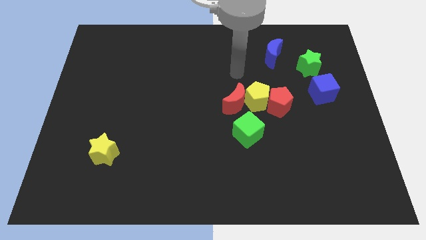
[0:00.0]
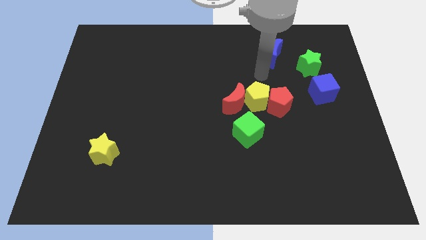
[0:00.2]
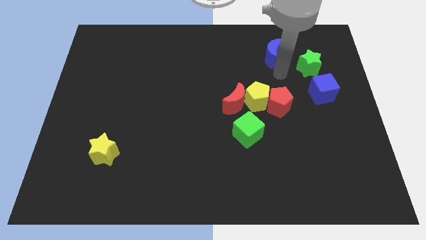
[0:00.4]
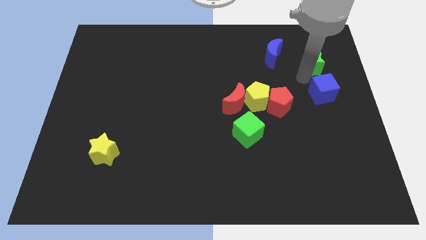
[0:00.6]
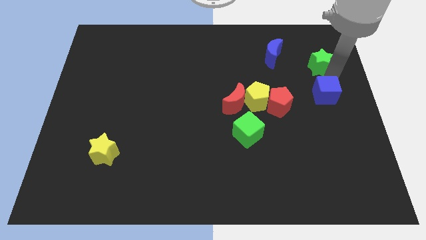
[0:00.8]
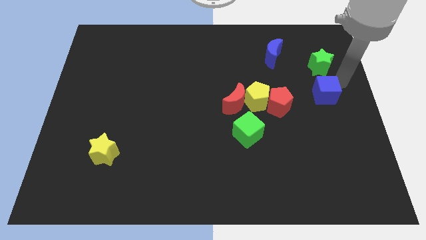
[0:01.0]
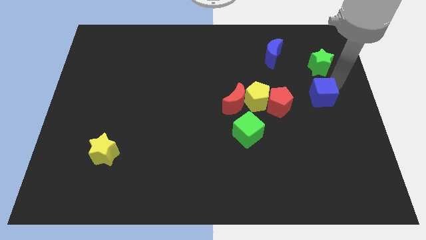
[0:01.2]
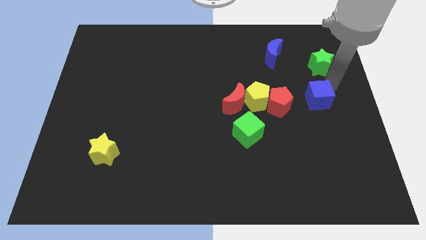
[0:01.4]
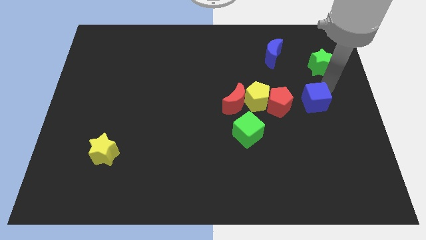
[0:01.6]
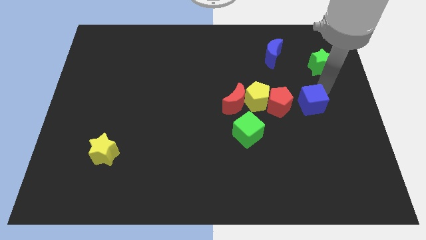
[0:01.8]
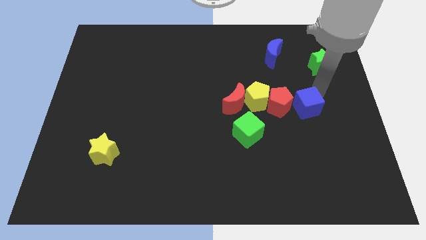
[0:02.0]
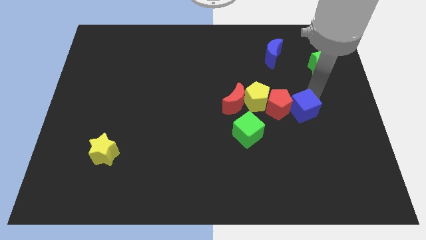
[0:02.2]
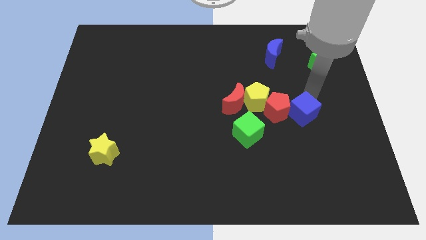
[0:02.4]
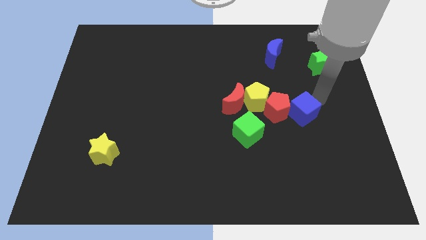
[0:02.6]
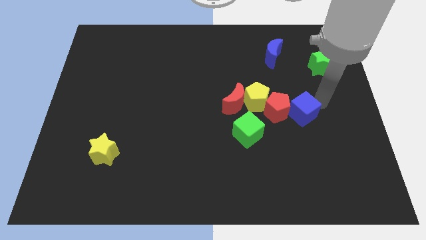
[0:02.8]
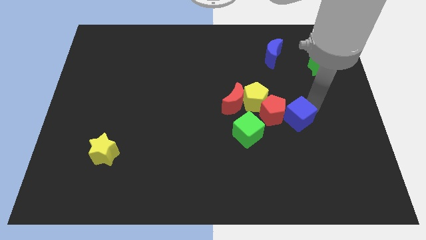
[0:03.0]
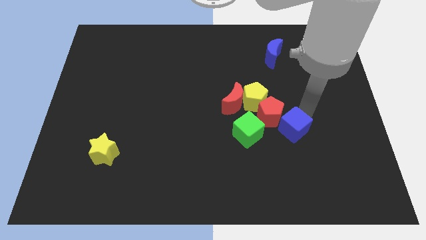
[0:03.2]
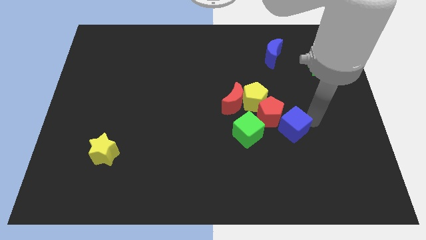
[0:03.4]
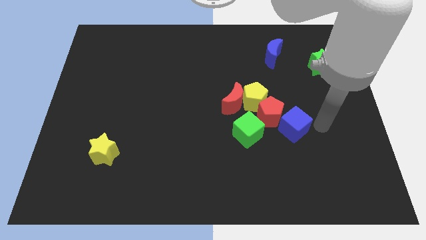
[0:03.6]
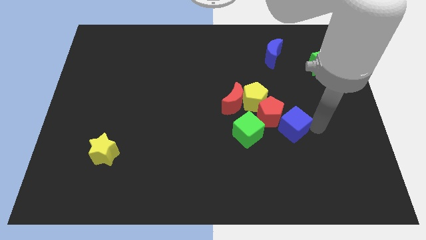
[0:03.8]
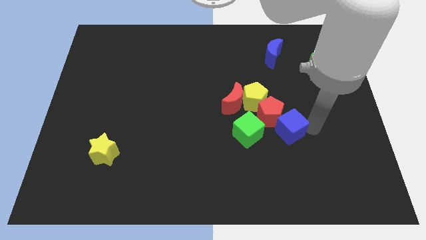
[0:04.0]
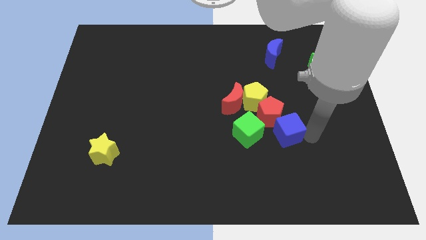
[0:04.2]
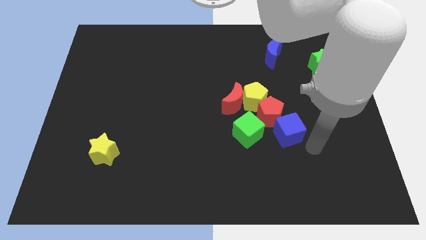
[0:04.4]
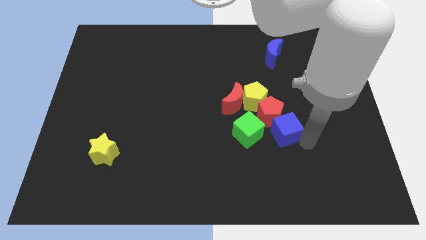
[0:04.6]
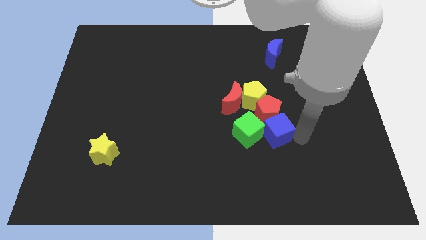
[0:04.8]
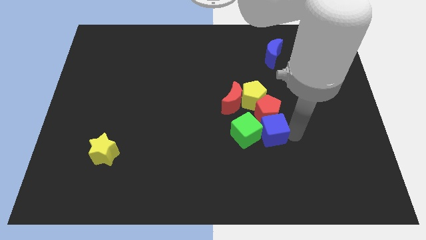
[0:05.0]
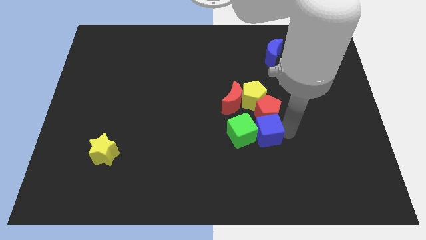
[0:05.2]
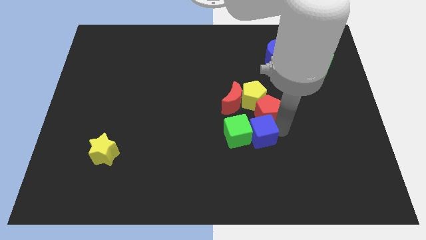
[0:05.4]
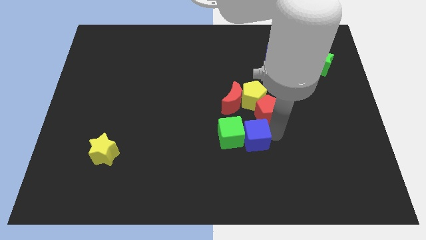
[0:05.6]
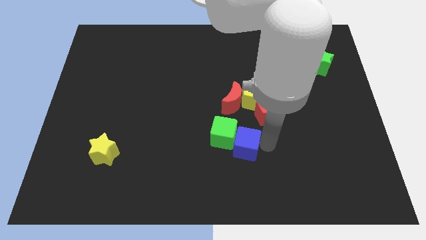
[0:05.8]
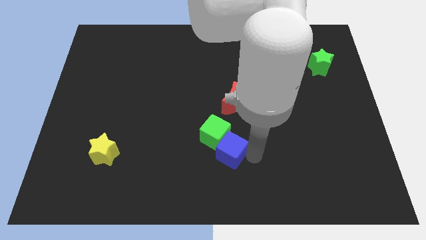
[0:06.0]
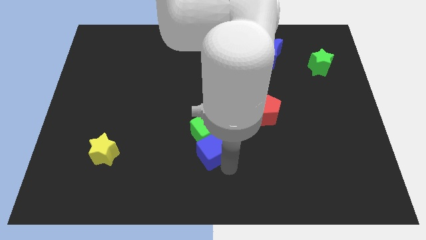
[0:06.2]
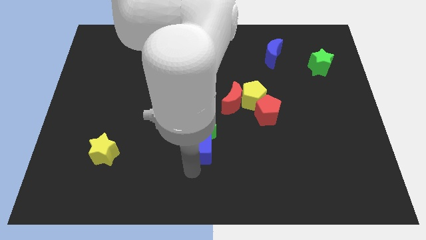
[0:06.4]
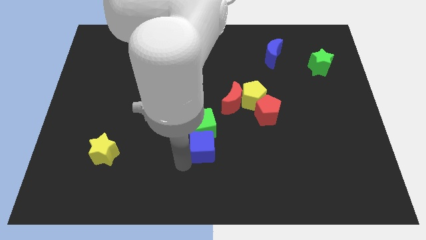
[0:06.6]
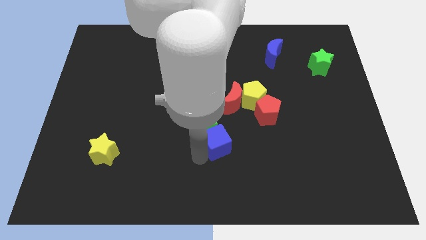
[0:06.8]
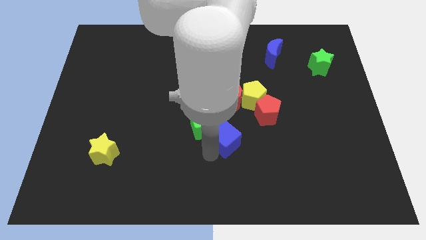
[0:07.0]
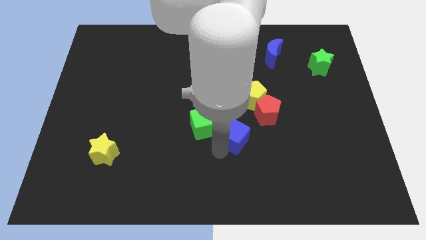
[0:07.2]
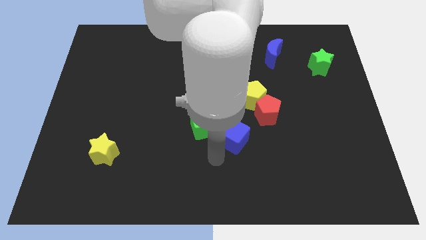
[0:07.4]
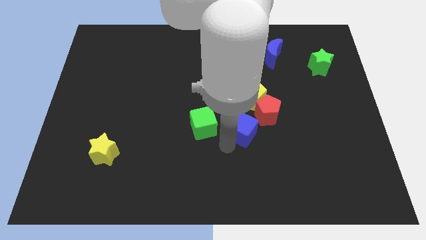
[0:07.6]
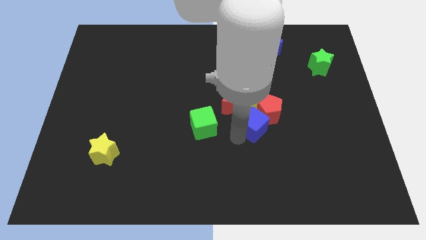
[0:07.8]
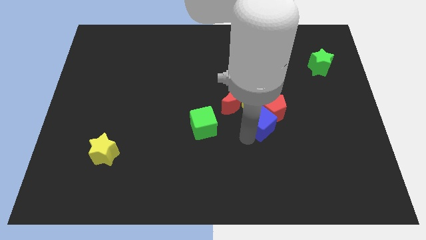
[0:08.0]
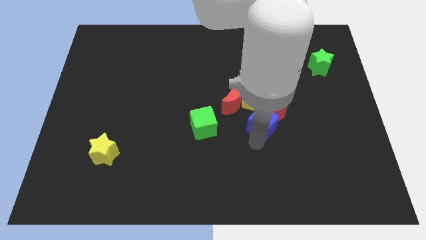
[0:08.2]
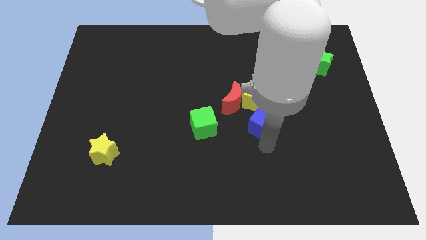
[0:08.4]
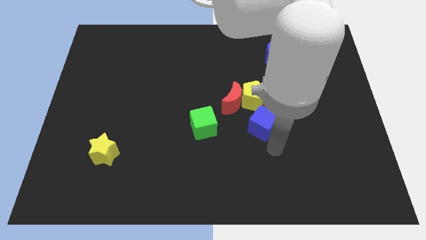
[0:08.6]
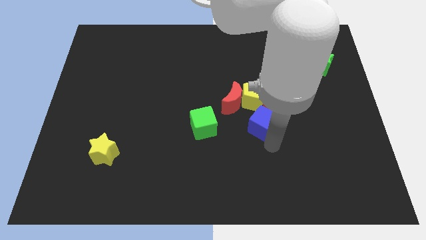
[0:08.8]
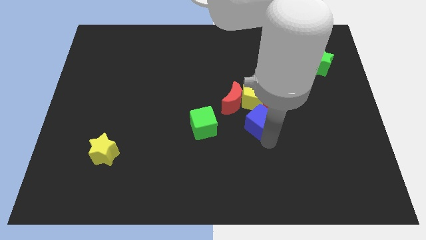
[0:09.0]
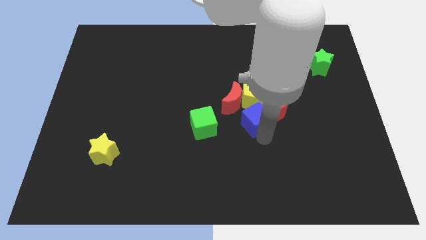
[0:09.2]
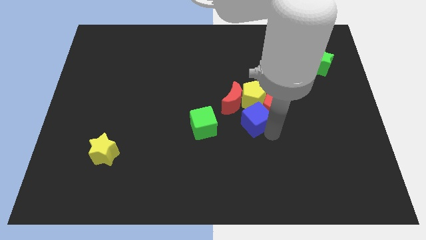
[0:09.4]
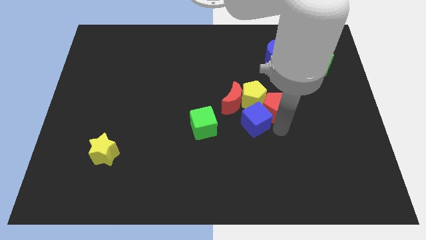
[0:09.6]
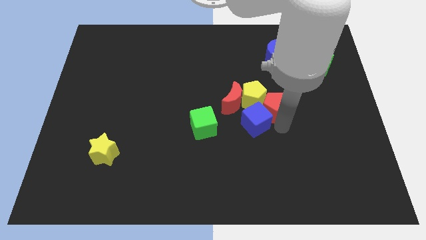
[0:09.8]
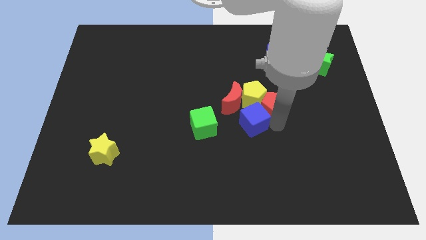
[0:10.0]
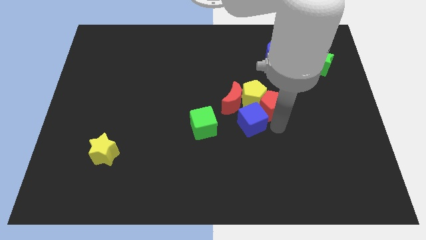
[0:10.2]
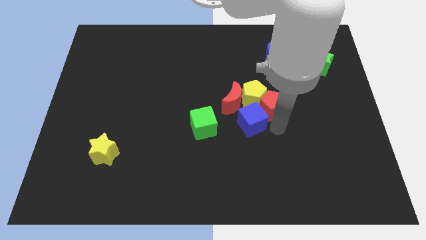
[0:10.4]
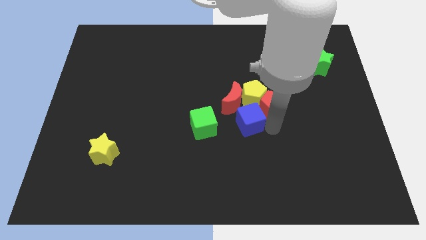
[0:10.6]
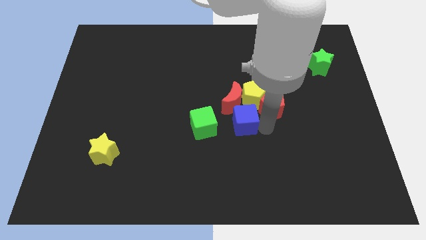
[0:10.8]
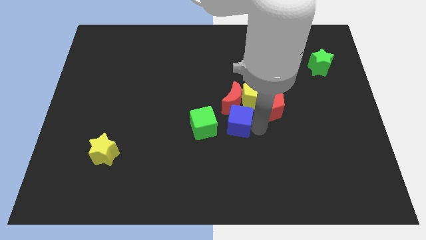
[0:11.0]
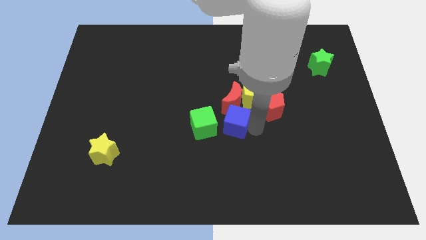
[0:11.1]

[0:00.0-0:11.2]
slide the blue cube to the bottom left of the red moon

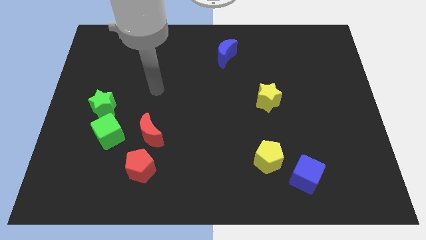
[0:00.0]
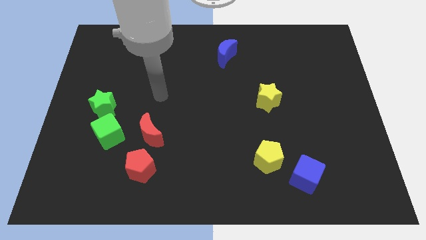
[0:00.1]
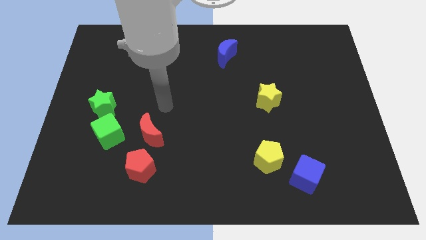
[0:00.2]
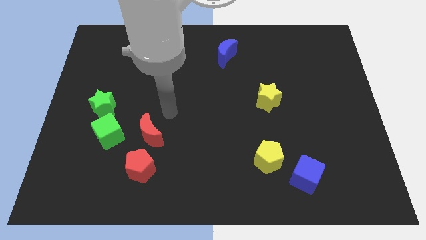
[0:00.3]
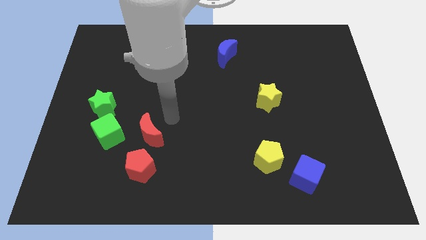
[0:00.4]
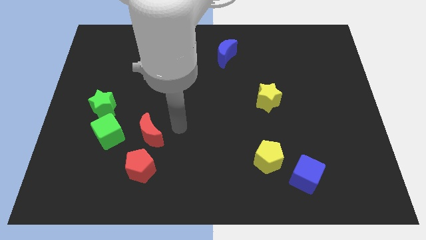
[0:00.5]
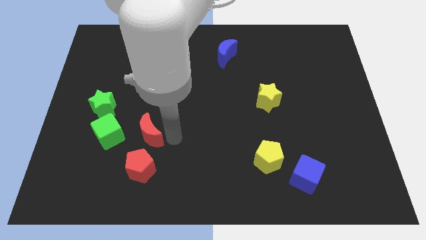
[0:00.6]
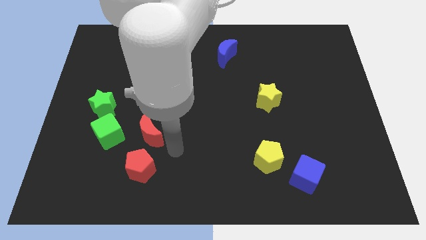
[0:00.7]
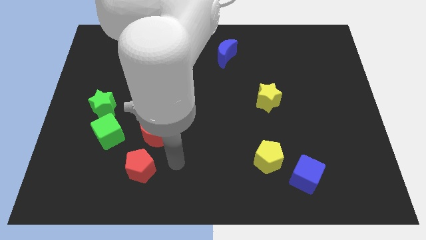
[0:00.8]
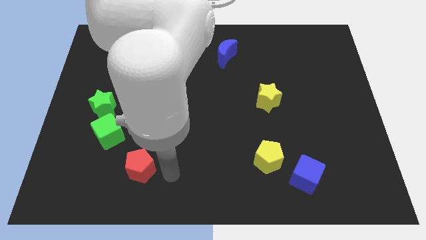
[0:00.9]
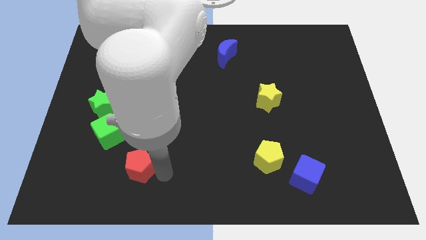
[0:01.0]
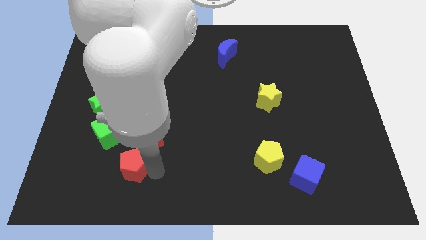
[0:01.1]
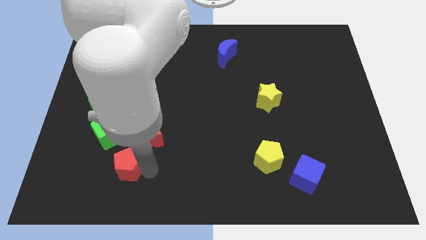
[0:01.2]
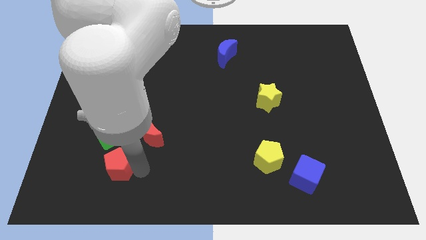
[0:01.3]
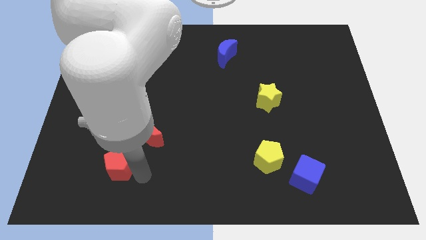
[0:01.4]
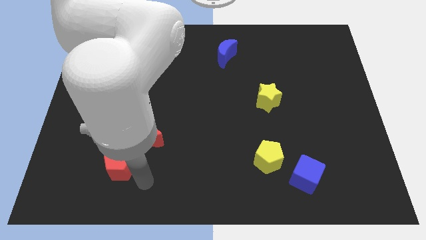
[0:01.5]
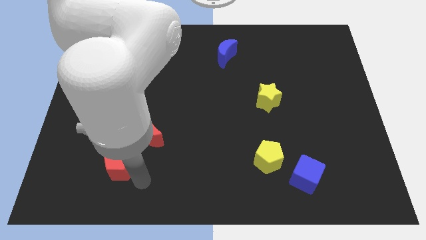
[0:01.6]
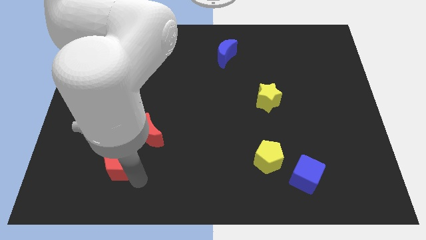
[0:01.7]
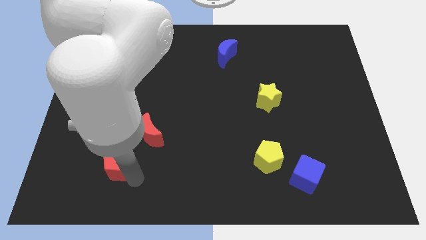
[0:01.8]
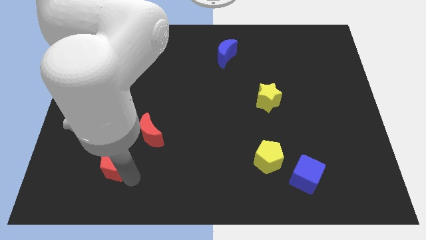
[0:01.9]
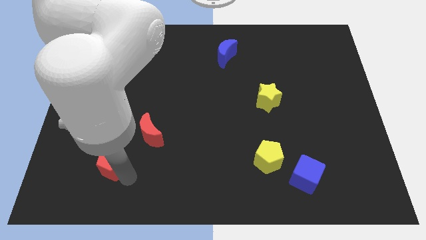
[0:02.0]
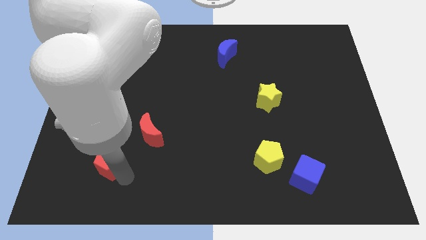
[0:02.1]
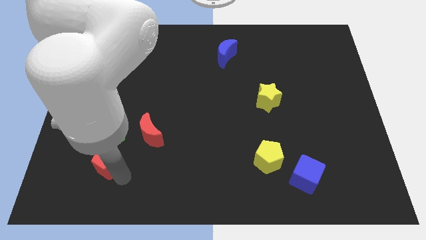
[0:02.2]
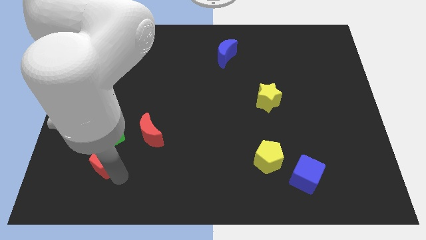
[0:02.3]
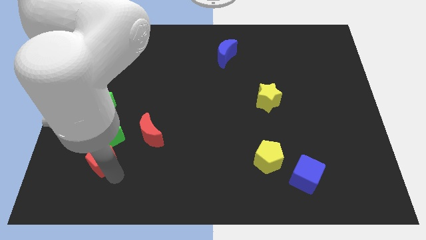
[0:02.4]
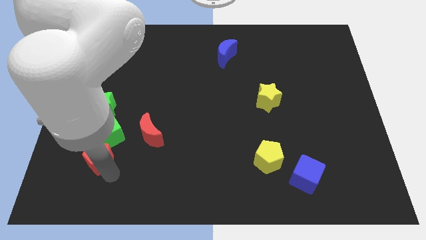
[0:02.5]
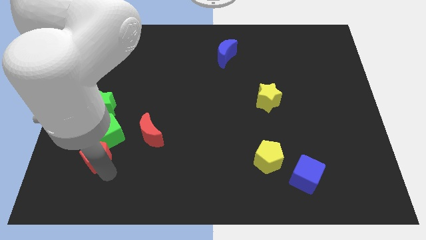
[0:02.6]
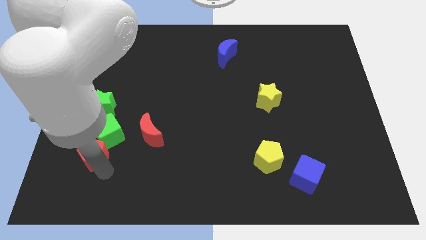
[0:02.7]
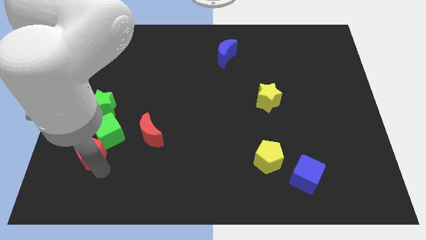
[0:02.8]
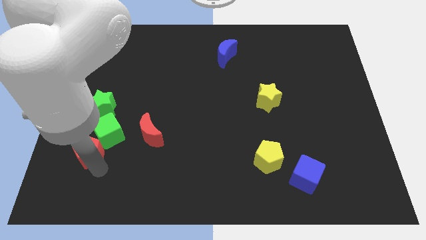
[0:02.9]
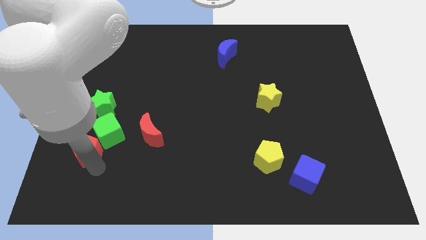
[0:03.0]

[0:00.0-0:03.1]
push the red pentagon left of the red moon
